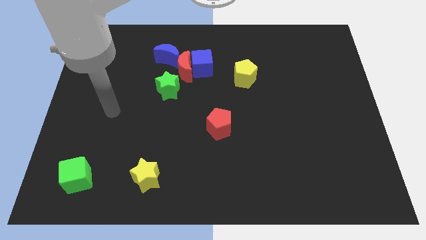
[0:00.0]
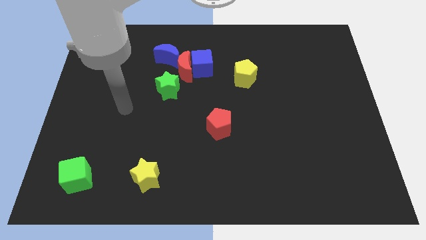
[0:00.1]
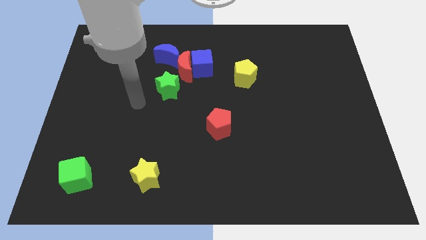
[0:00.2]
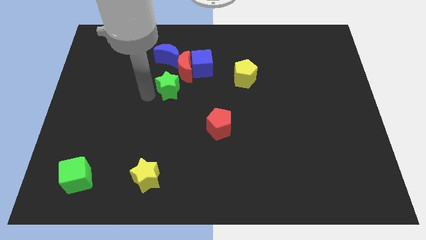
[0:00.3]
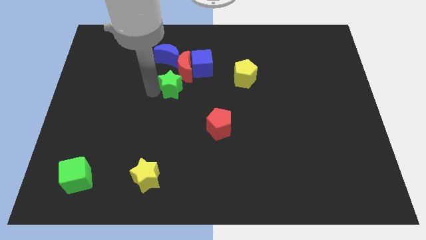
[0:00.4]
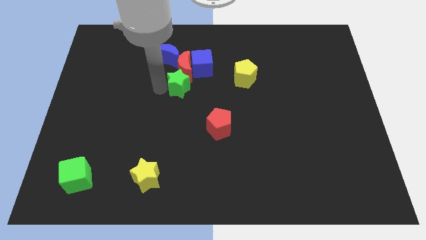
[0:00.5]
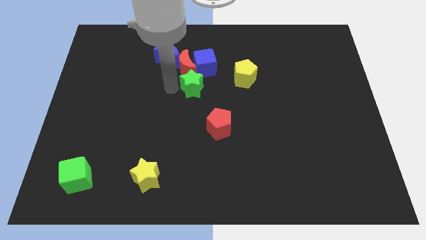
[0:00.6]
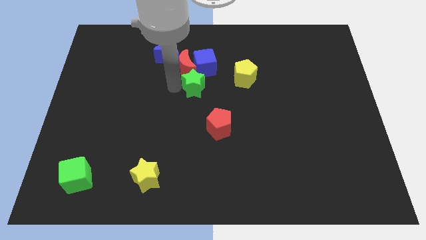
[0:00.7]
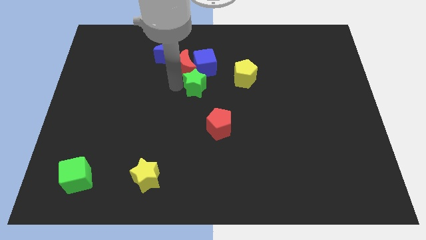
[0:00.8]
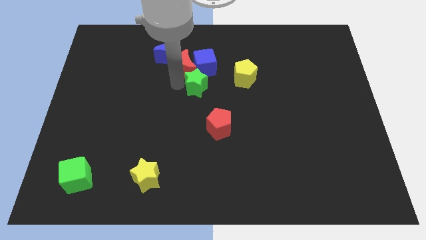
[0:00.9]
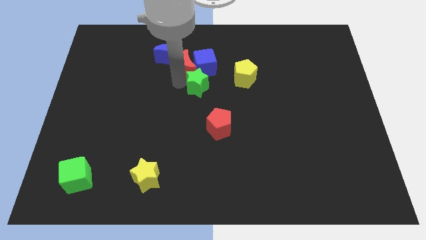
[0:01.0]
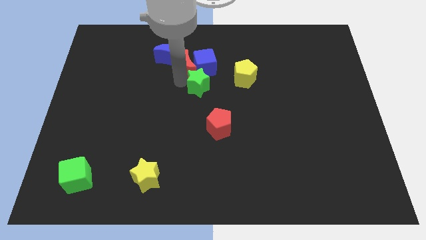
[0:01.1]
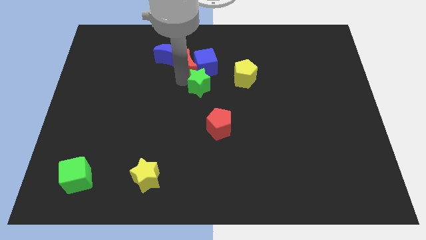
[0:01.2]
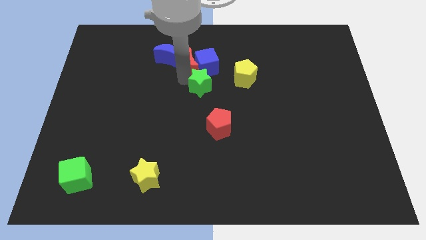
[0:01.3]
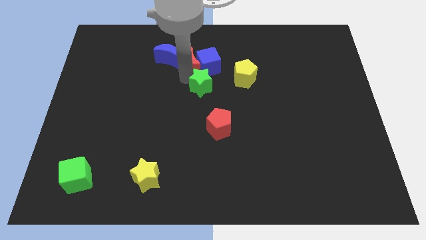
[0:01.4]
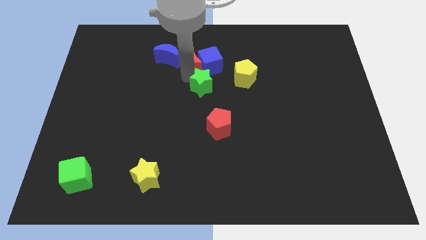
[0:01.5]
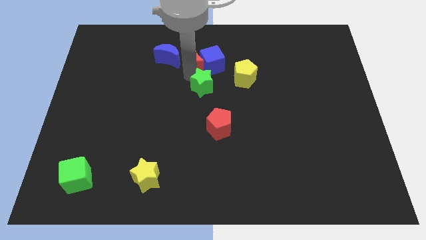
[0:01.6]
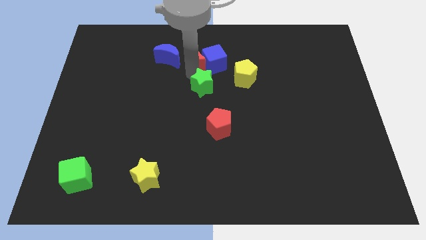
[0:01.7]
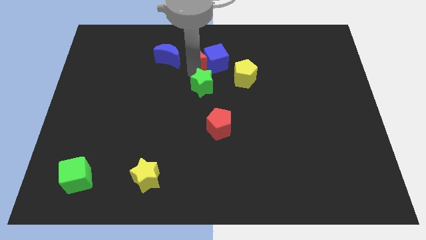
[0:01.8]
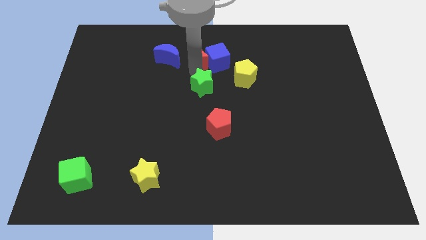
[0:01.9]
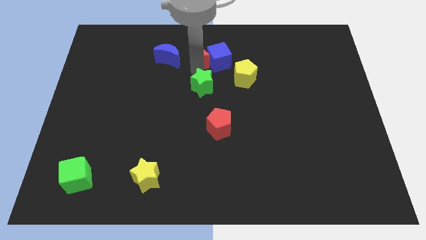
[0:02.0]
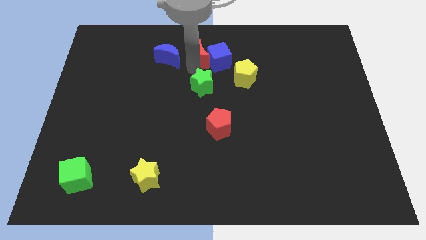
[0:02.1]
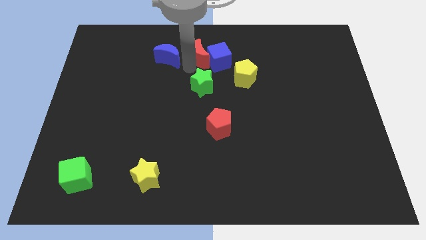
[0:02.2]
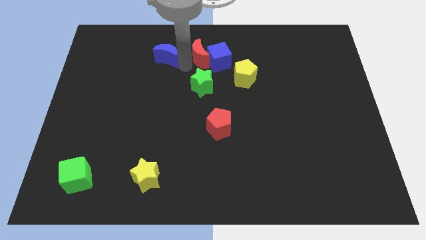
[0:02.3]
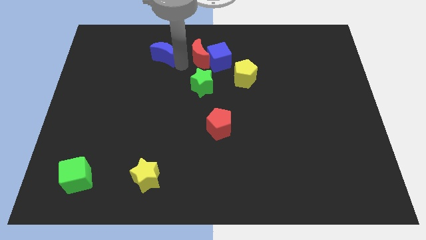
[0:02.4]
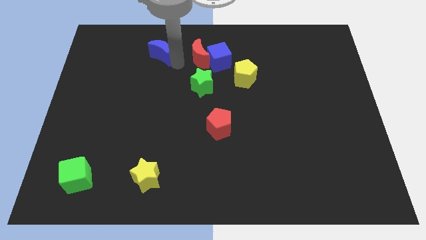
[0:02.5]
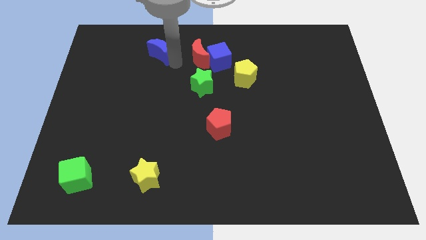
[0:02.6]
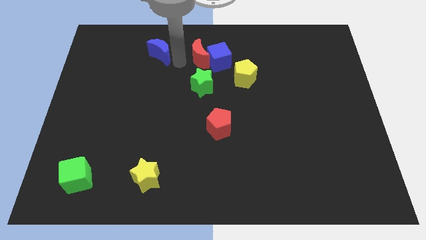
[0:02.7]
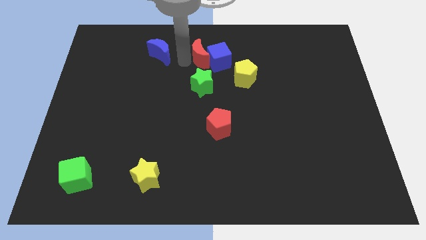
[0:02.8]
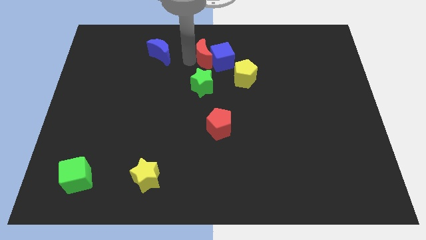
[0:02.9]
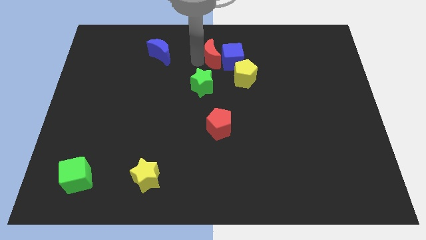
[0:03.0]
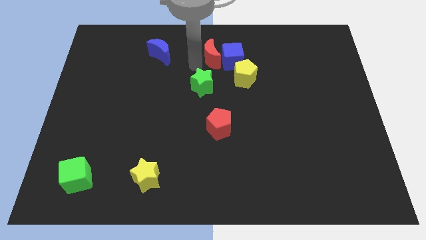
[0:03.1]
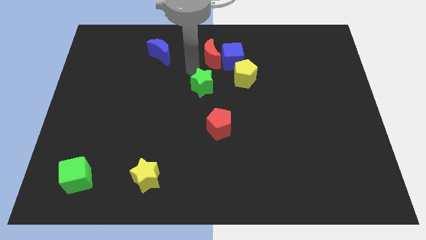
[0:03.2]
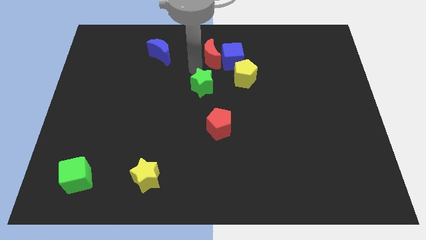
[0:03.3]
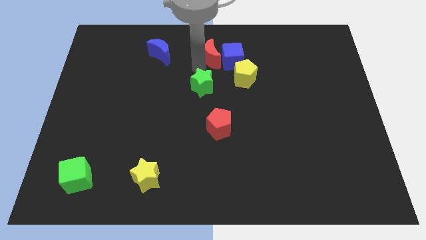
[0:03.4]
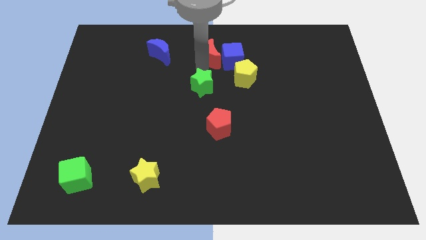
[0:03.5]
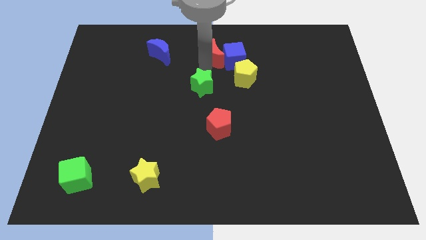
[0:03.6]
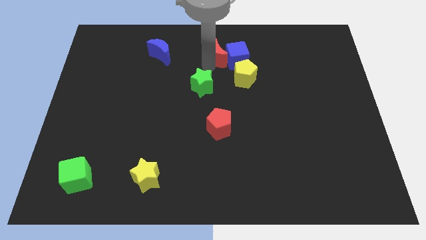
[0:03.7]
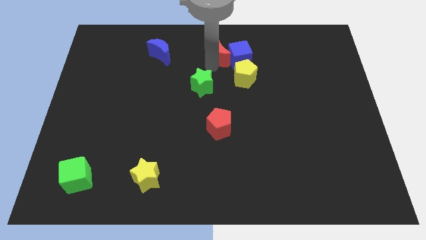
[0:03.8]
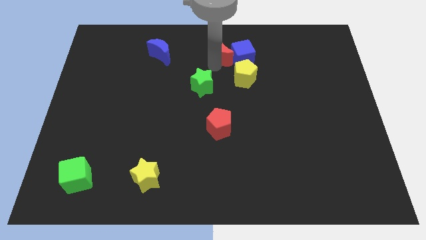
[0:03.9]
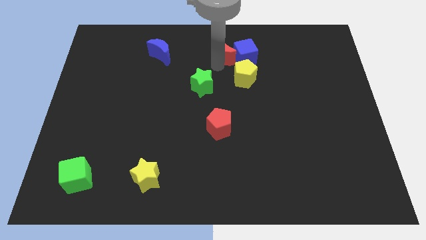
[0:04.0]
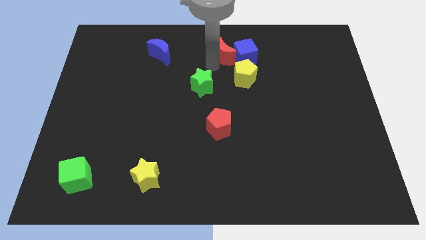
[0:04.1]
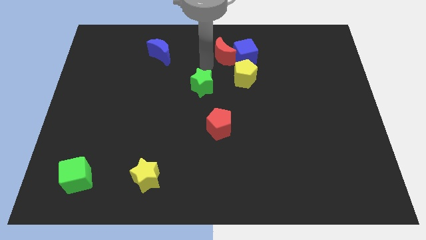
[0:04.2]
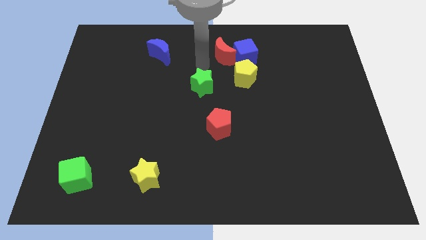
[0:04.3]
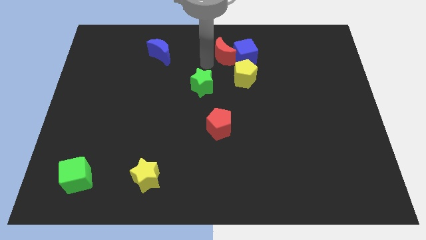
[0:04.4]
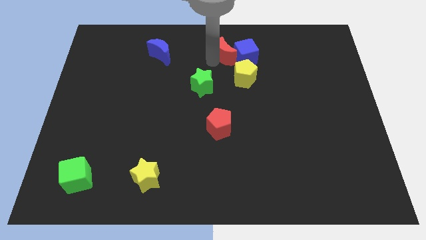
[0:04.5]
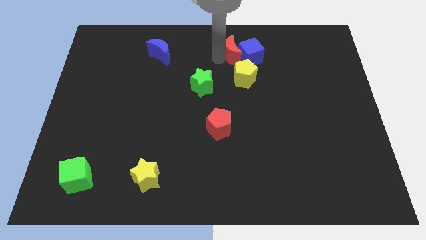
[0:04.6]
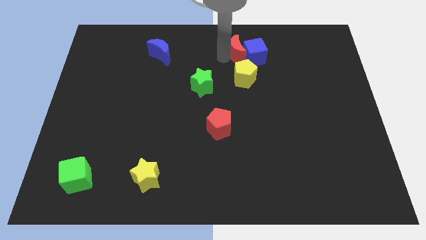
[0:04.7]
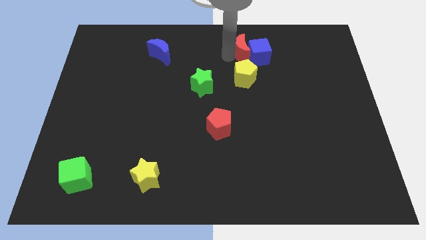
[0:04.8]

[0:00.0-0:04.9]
separate the red moon from the clump

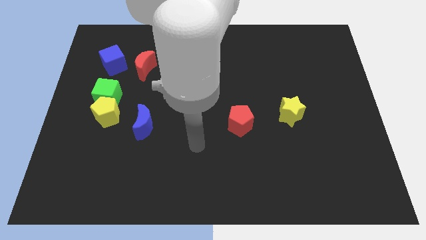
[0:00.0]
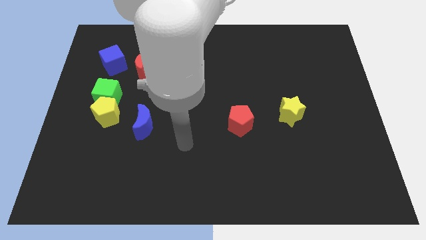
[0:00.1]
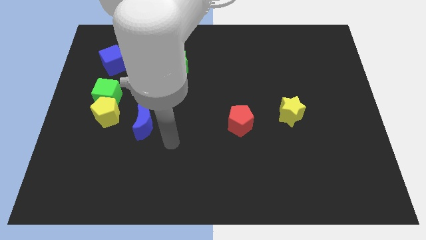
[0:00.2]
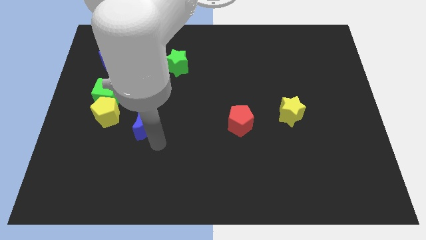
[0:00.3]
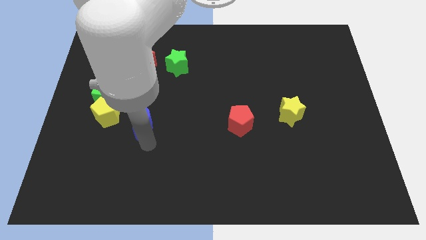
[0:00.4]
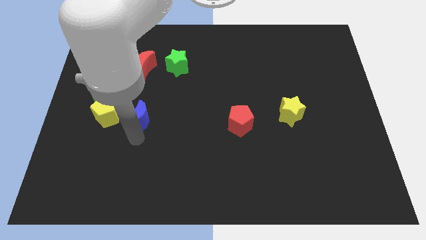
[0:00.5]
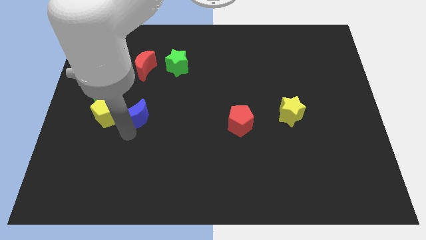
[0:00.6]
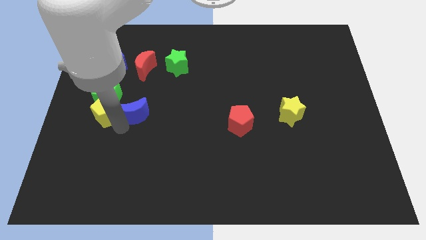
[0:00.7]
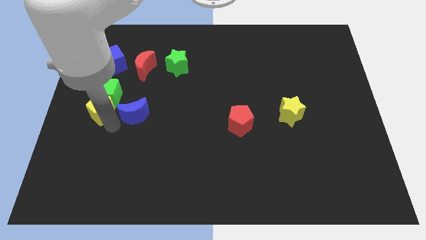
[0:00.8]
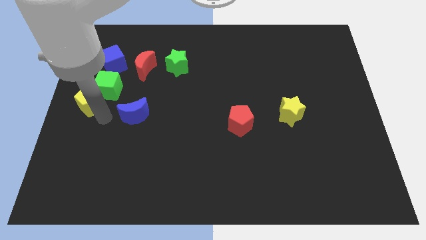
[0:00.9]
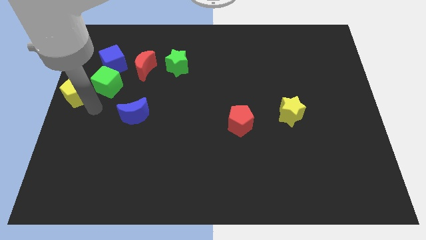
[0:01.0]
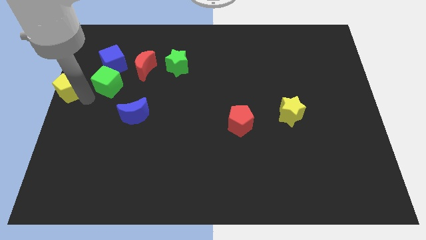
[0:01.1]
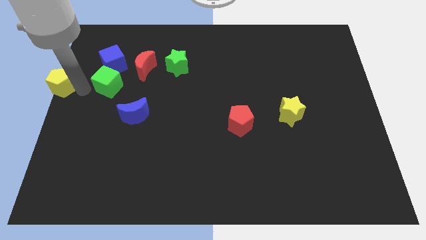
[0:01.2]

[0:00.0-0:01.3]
separate the green cube from the yellow pentagon

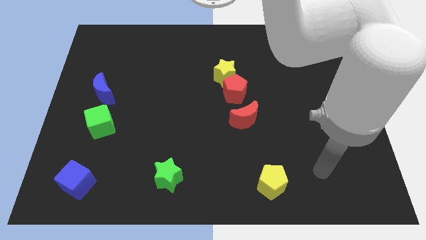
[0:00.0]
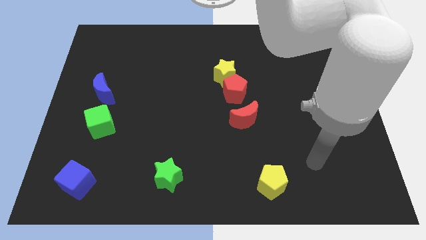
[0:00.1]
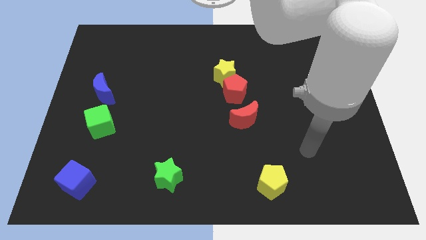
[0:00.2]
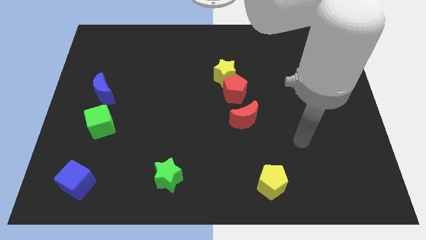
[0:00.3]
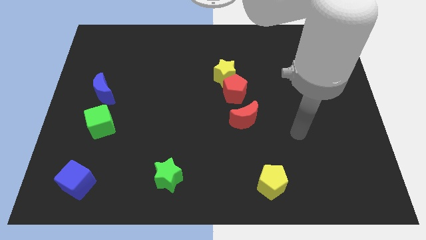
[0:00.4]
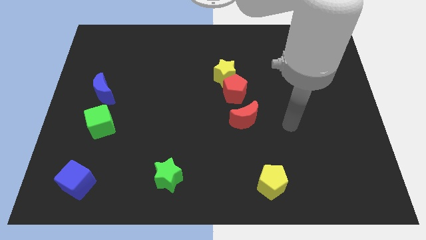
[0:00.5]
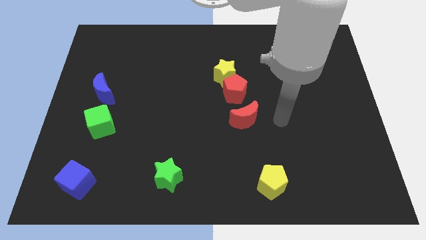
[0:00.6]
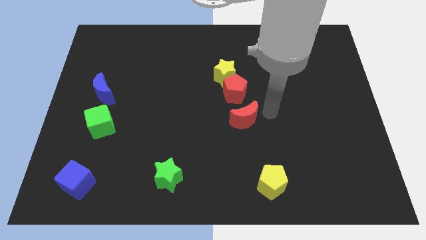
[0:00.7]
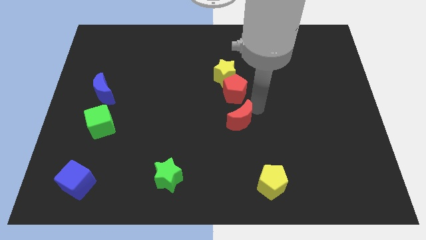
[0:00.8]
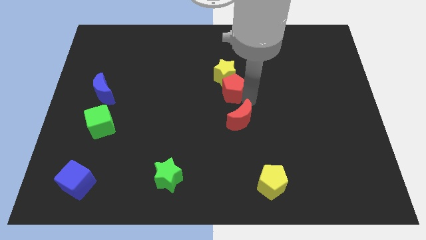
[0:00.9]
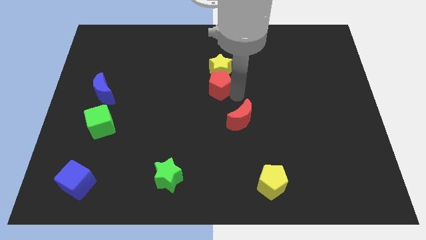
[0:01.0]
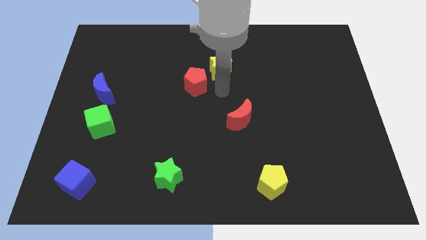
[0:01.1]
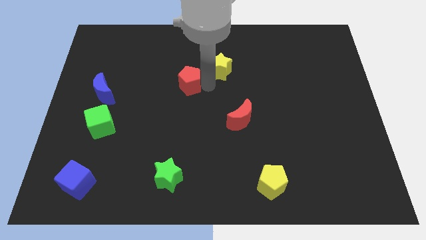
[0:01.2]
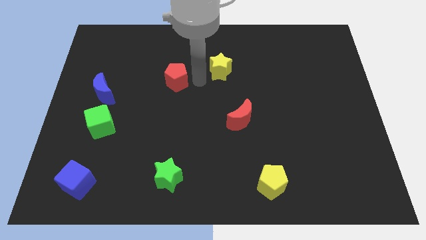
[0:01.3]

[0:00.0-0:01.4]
move the yellow star away from the red pentagon

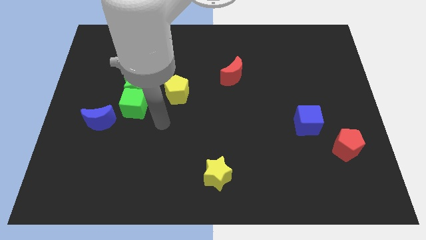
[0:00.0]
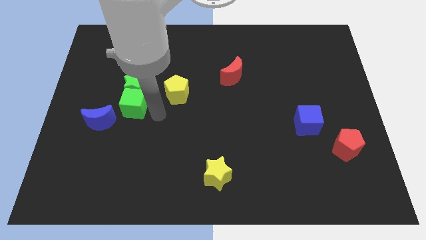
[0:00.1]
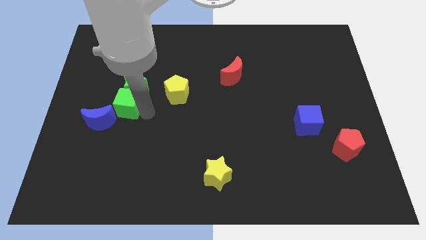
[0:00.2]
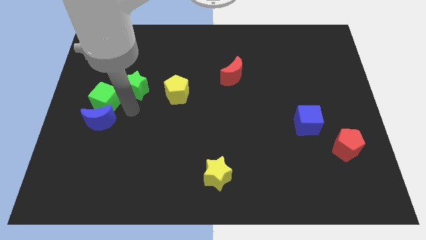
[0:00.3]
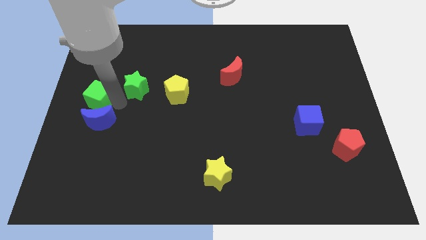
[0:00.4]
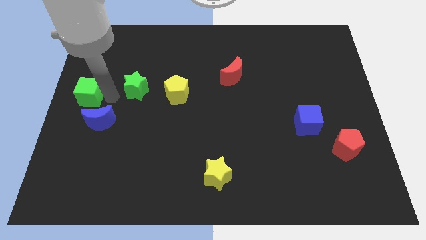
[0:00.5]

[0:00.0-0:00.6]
pull the green star apart from the green cube

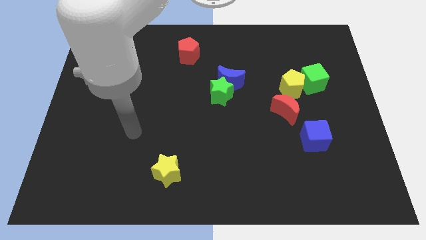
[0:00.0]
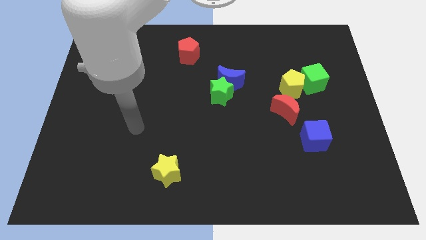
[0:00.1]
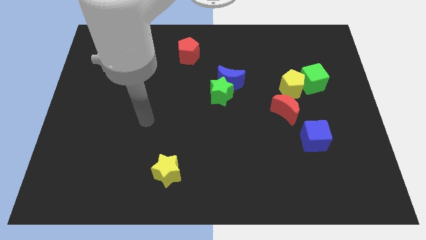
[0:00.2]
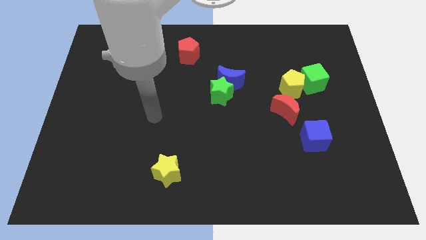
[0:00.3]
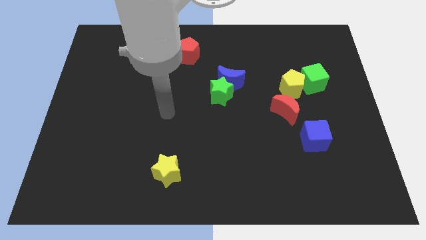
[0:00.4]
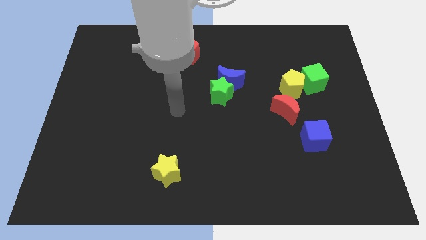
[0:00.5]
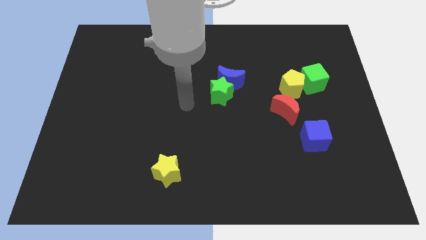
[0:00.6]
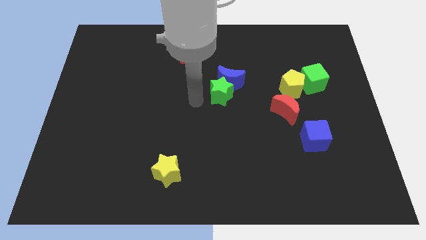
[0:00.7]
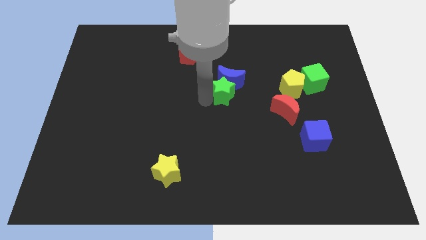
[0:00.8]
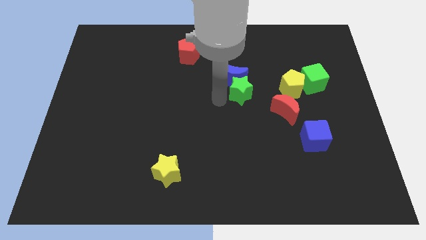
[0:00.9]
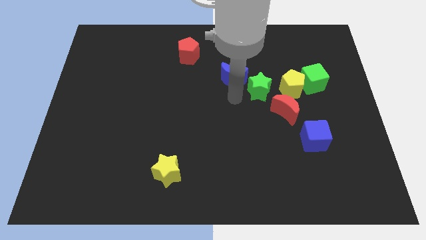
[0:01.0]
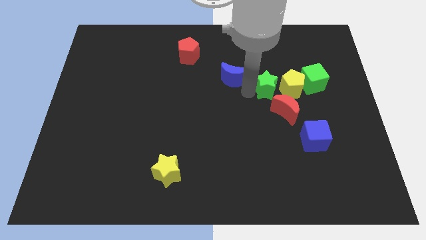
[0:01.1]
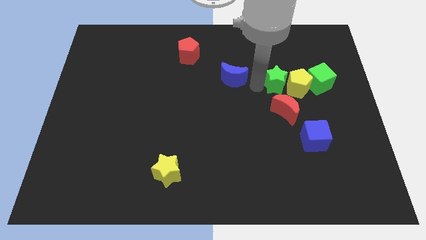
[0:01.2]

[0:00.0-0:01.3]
move the blue moon away from the green star
